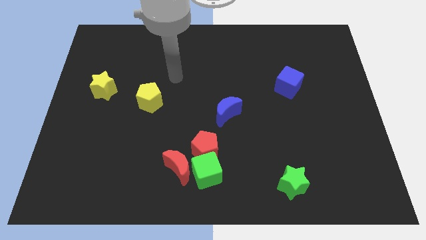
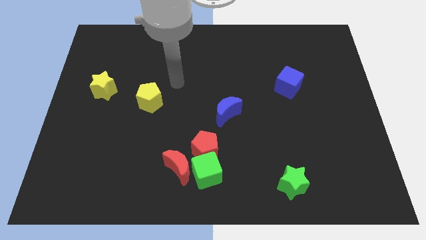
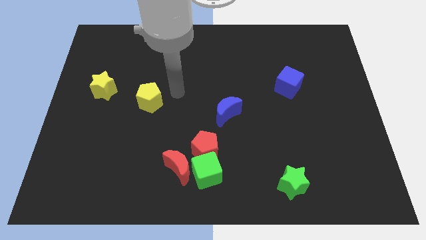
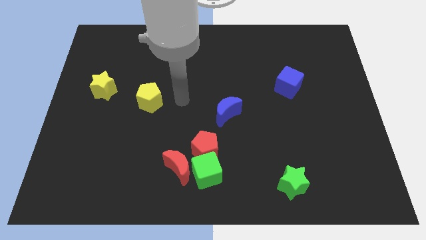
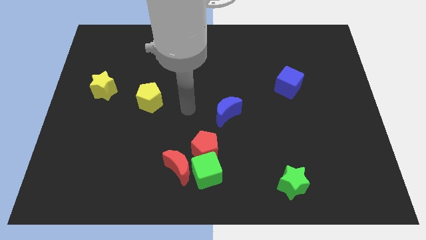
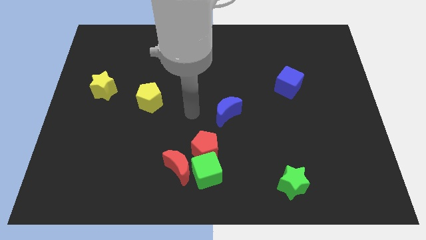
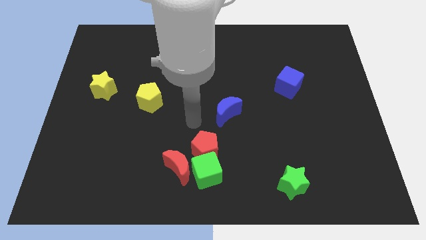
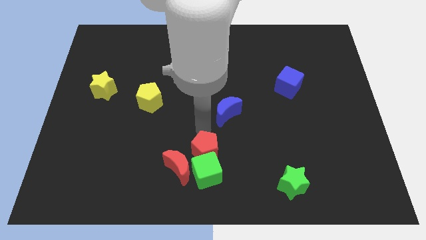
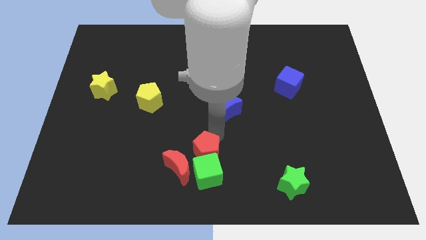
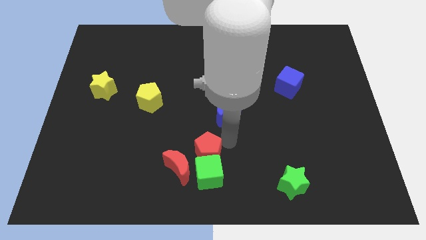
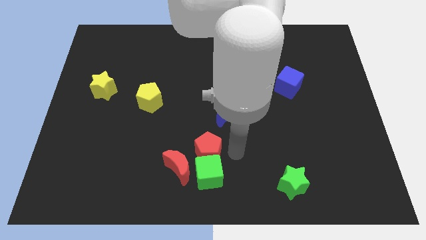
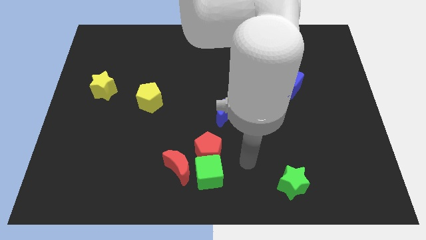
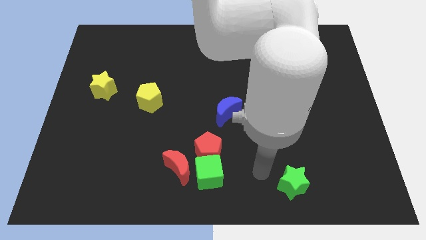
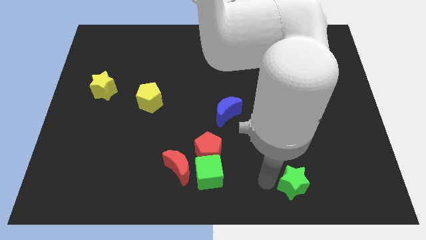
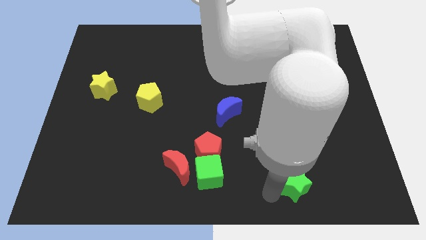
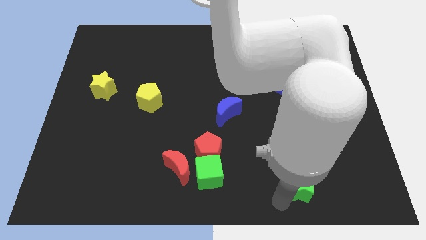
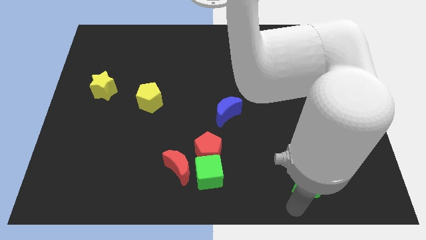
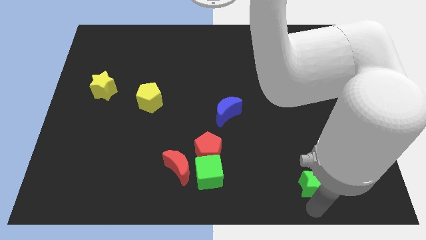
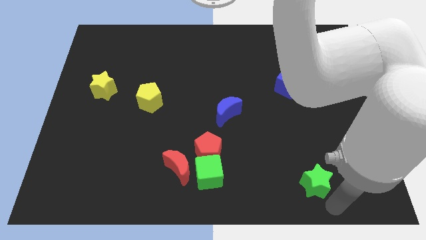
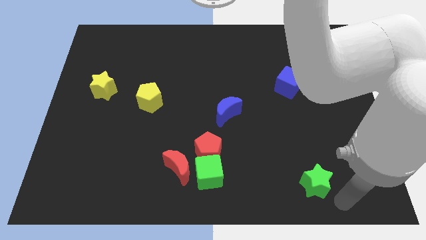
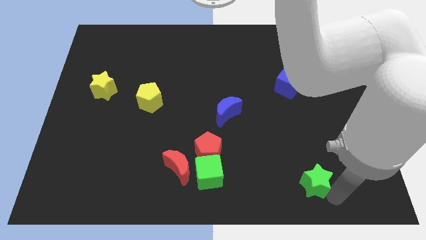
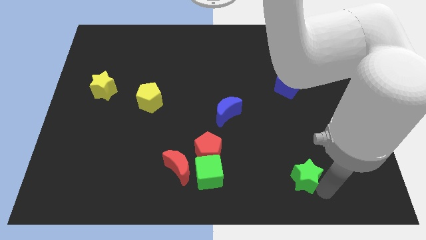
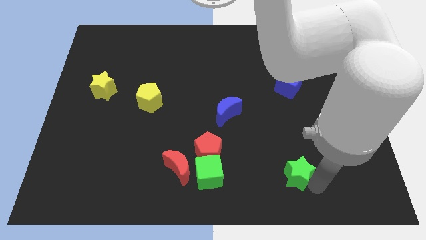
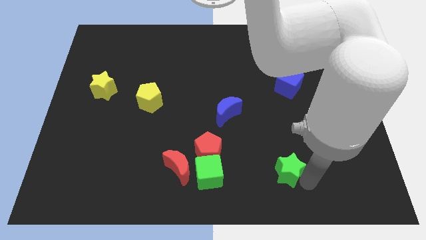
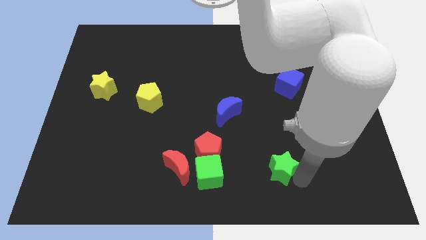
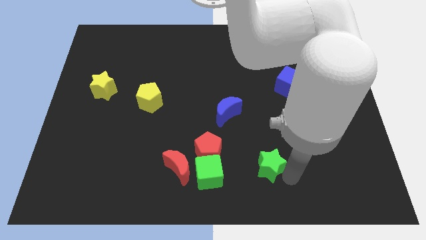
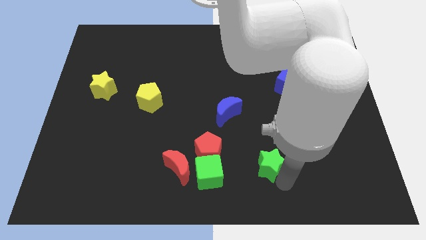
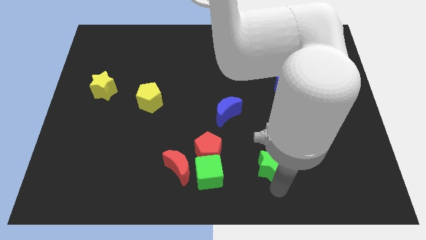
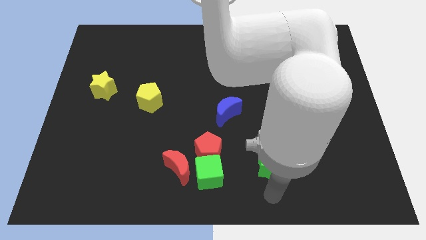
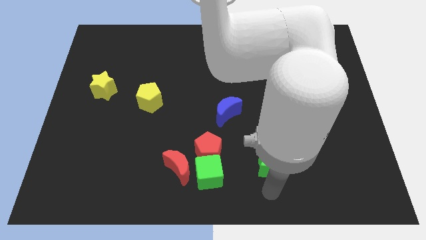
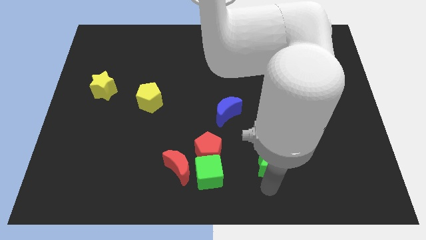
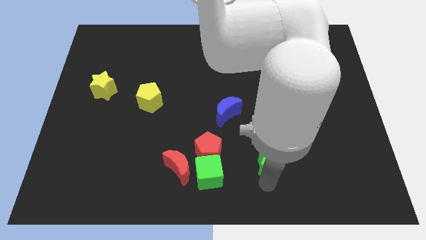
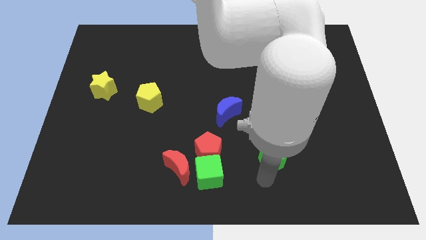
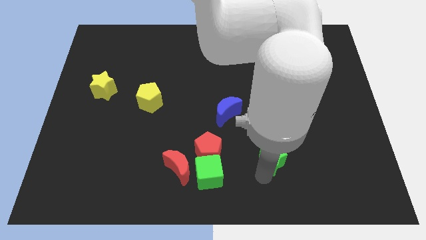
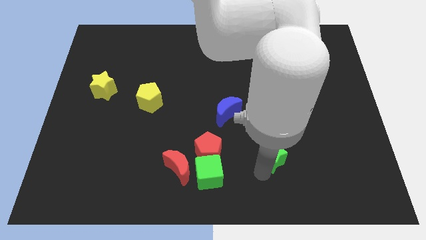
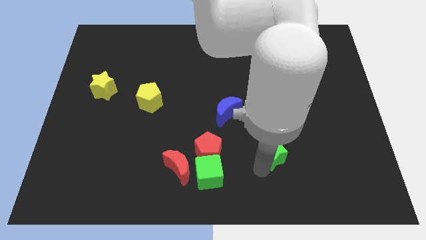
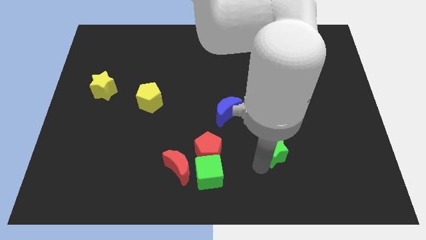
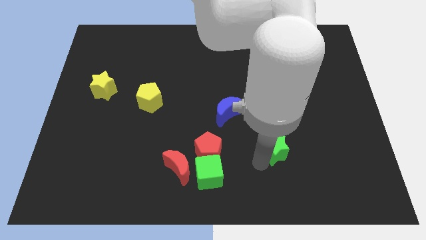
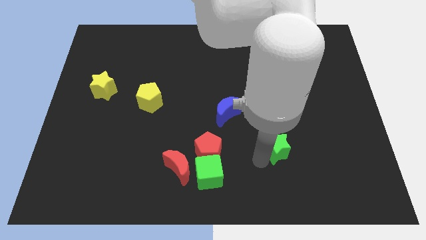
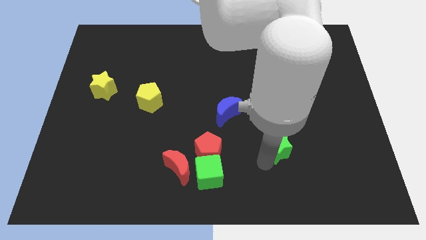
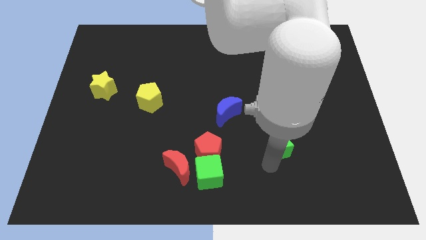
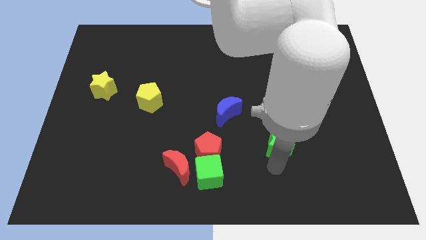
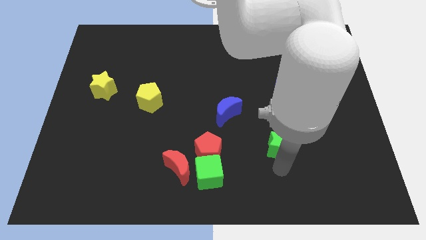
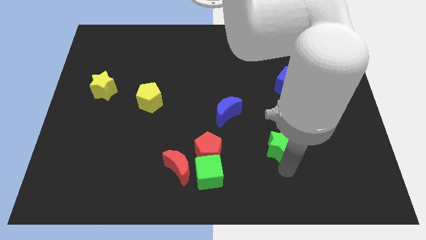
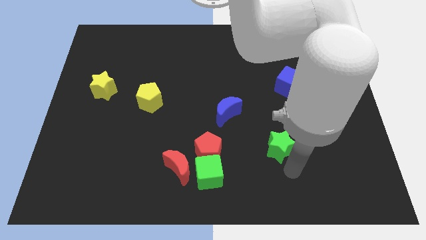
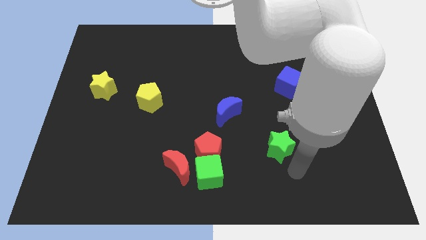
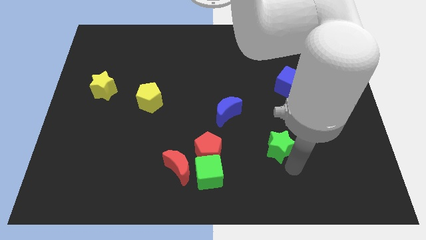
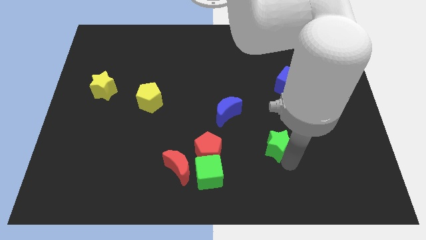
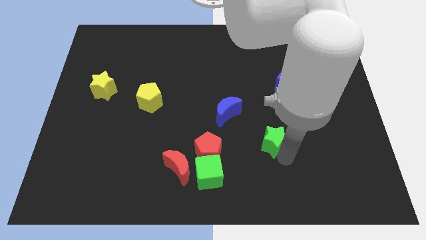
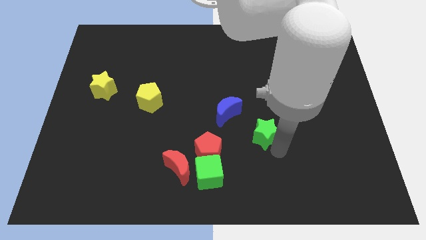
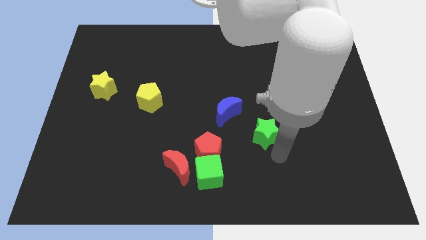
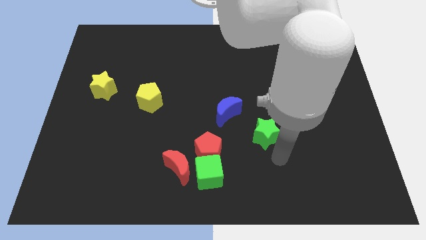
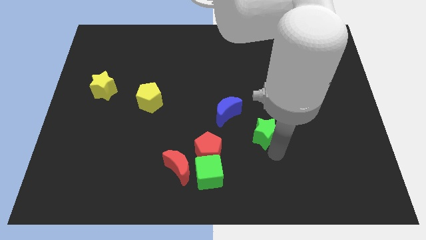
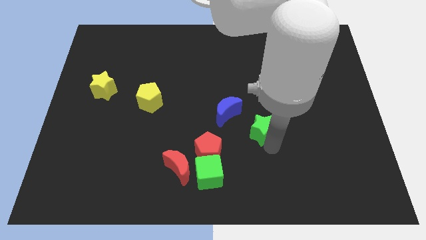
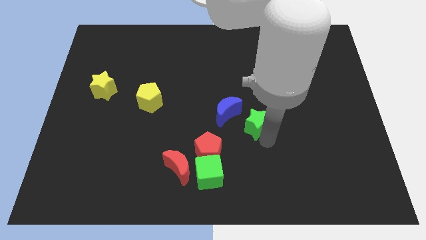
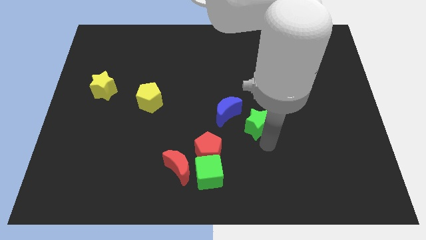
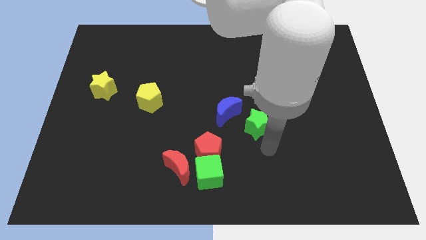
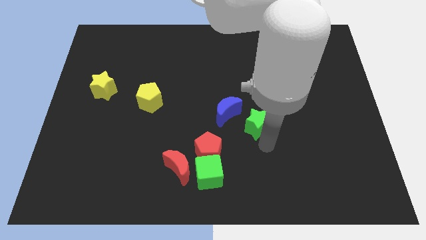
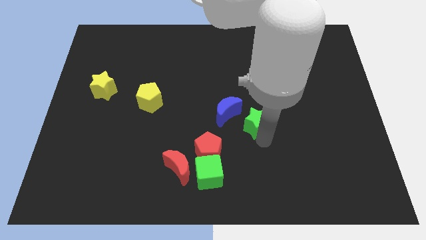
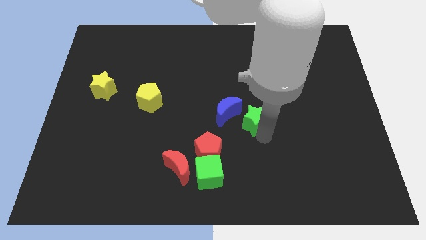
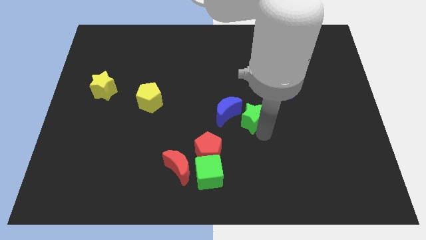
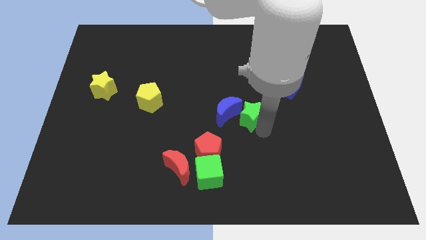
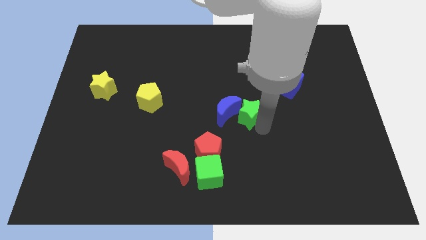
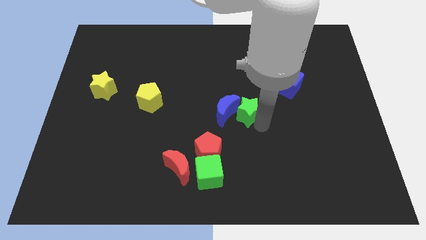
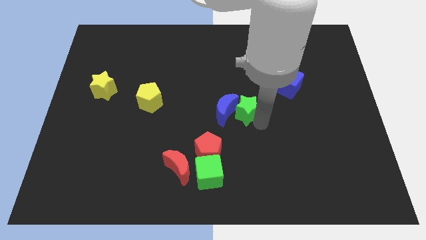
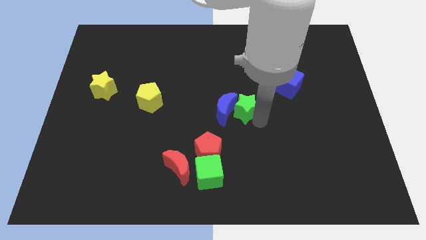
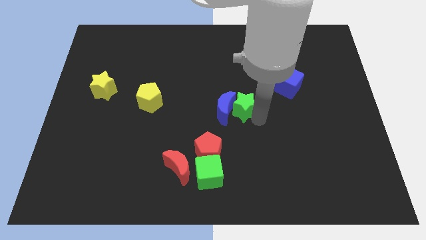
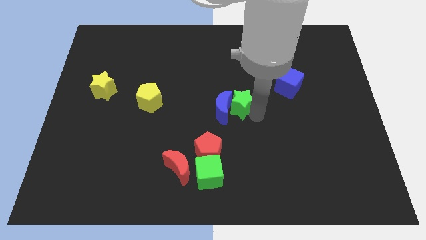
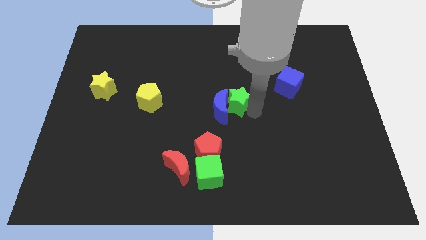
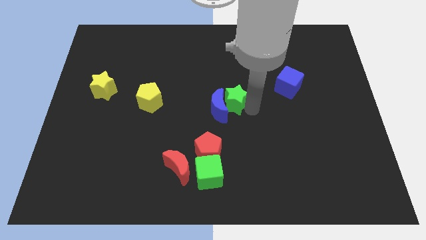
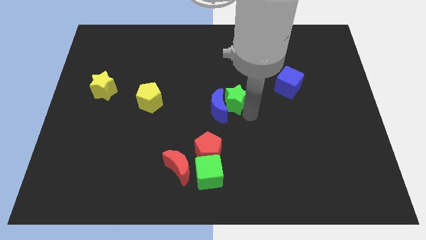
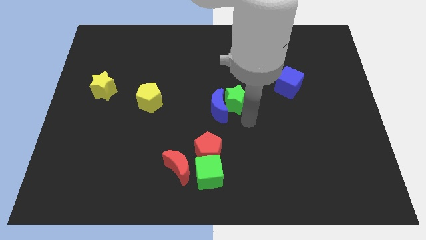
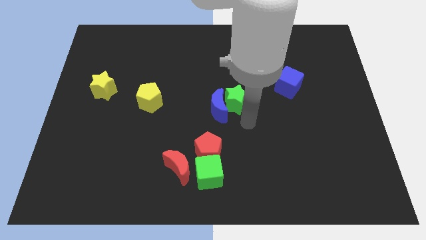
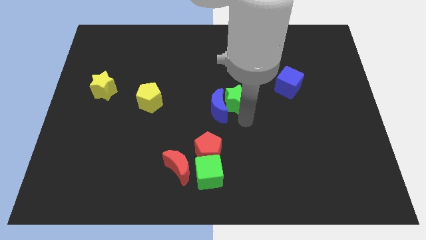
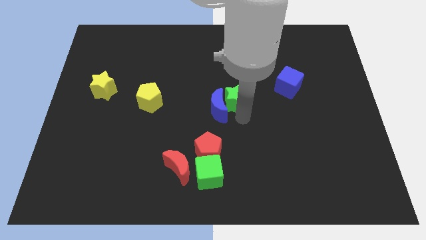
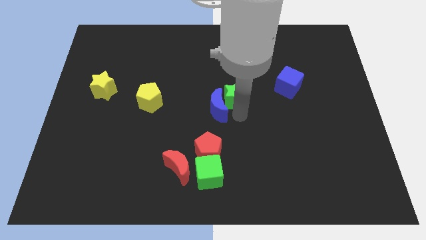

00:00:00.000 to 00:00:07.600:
slide the green star to the top side of the blue moon

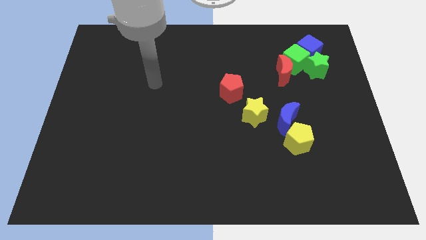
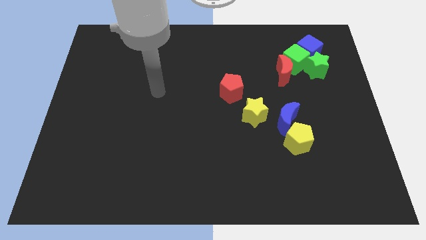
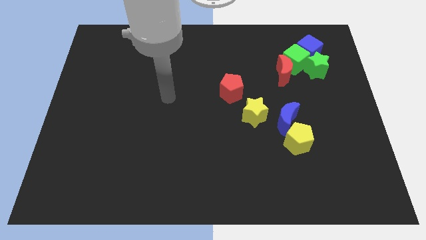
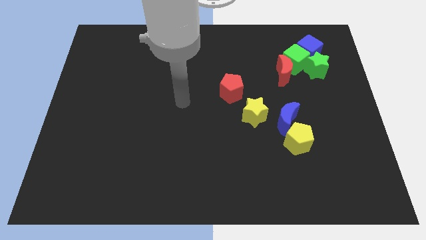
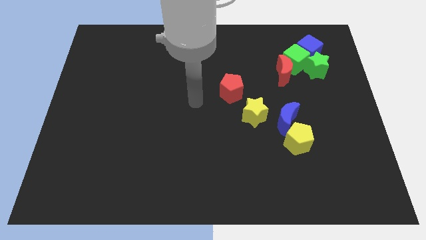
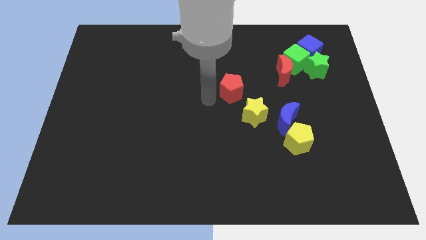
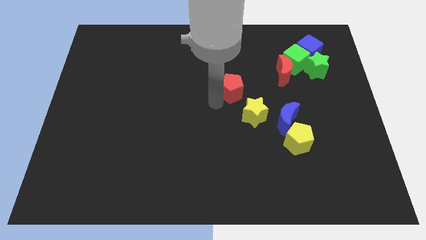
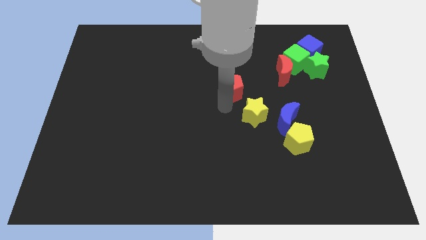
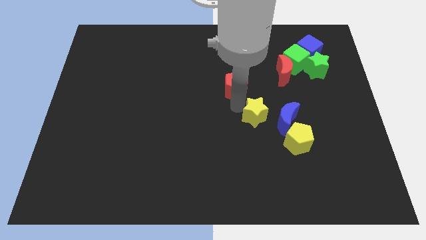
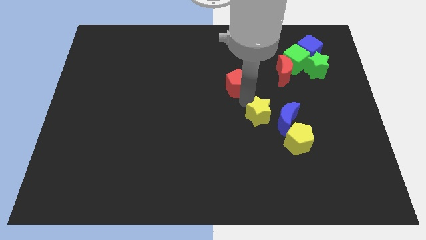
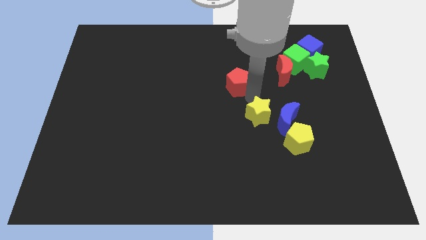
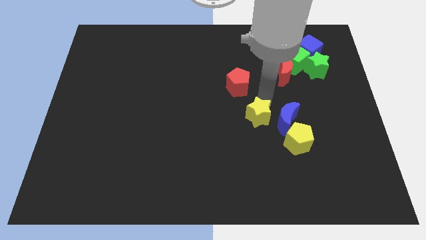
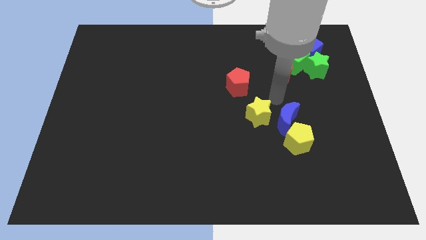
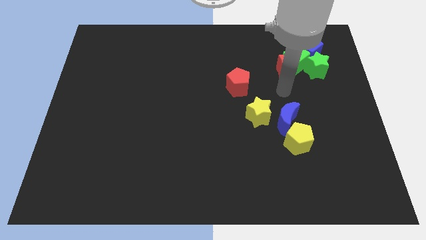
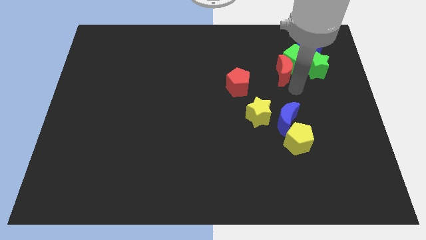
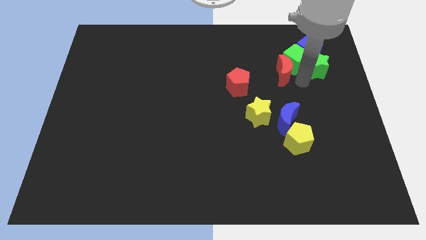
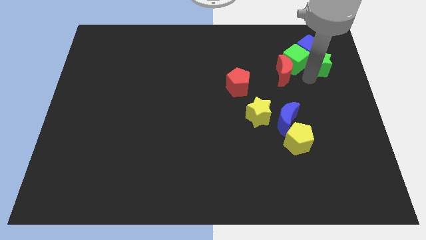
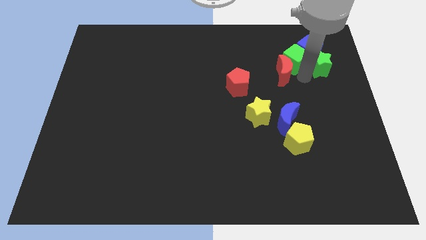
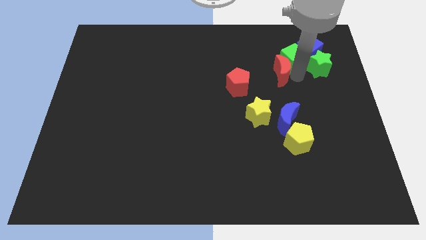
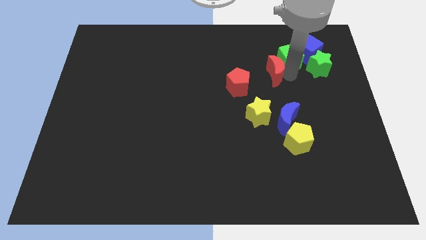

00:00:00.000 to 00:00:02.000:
move the red moon to the top right side of the red pentagon
